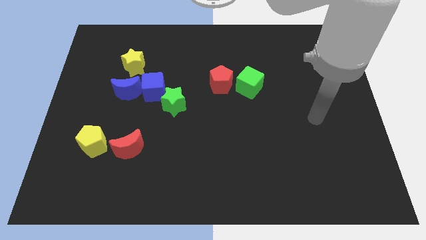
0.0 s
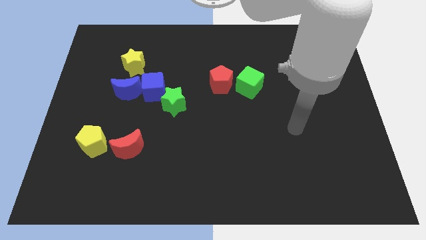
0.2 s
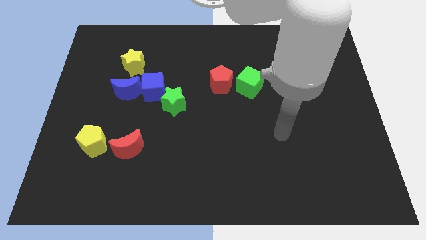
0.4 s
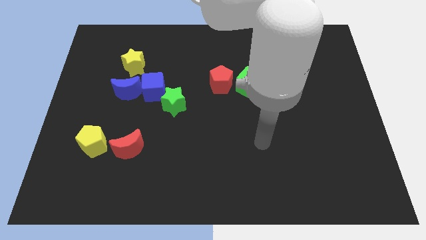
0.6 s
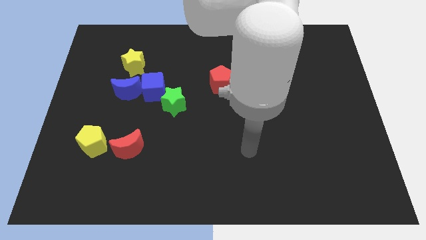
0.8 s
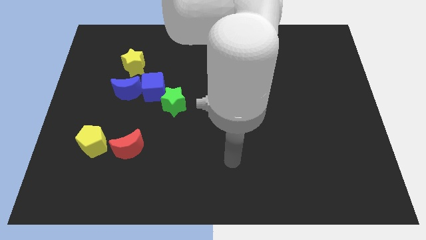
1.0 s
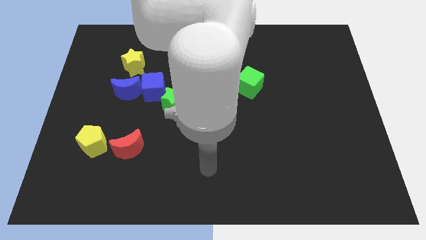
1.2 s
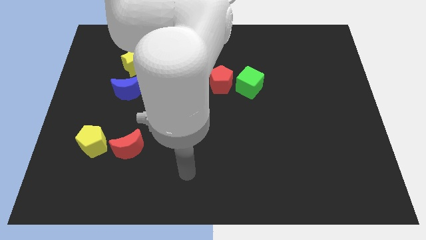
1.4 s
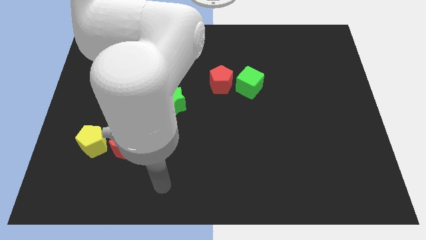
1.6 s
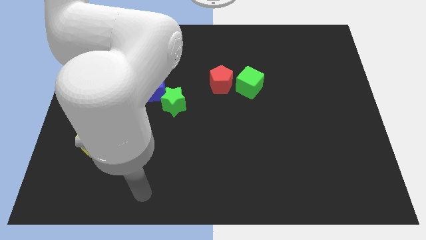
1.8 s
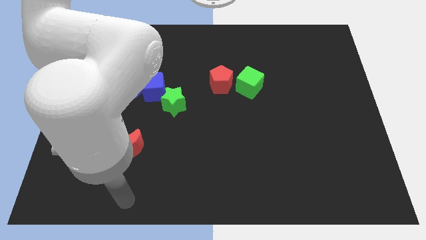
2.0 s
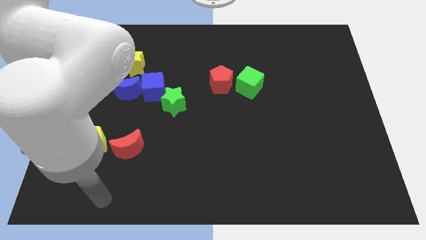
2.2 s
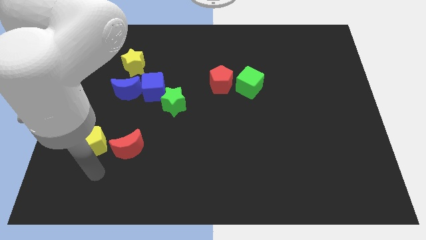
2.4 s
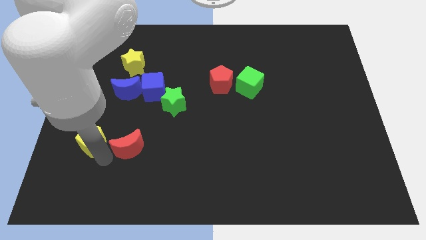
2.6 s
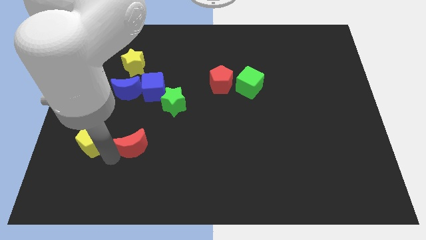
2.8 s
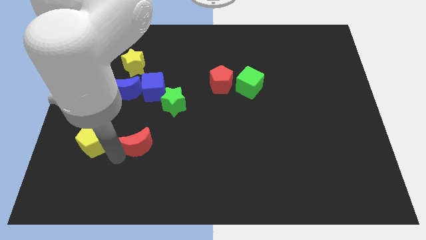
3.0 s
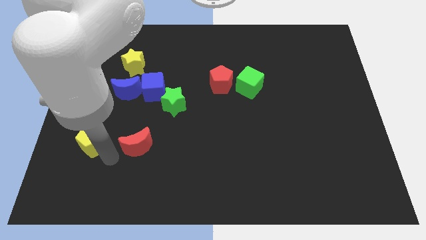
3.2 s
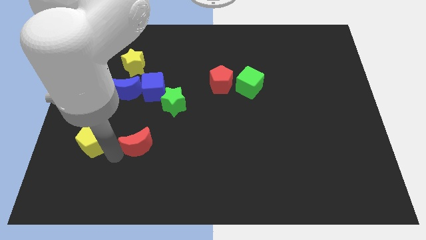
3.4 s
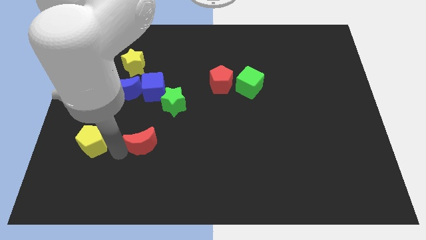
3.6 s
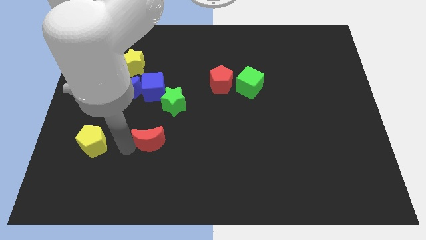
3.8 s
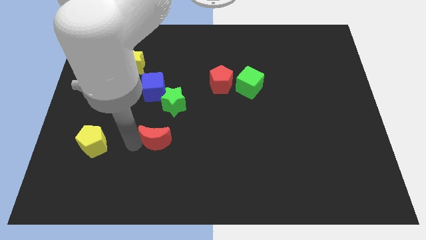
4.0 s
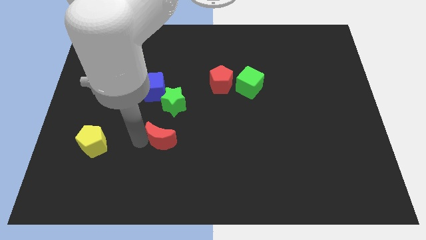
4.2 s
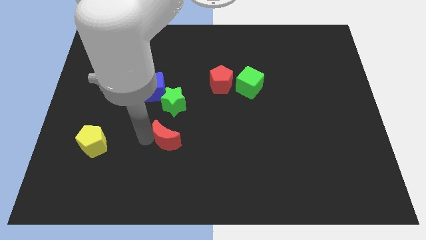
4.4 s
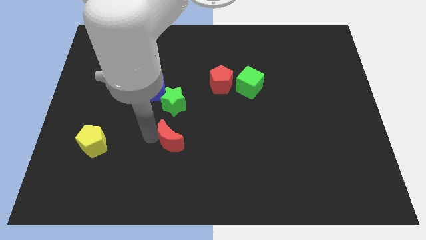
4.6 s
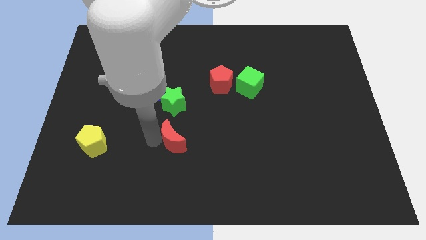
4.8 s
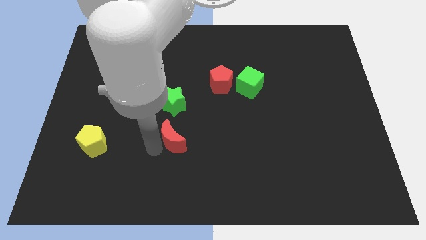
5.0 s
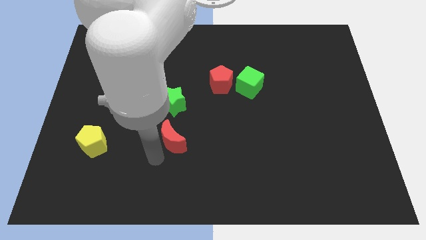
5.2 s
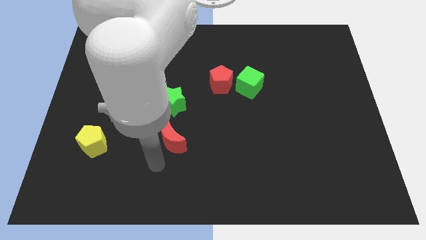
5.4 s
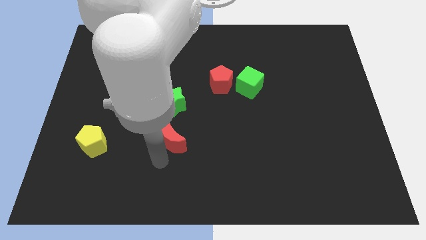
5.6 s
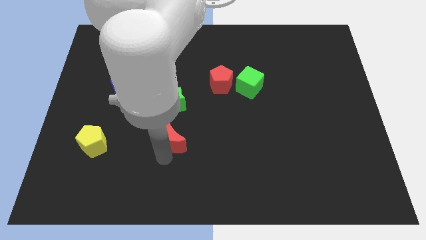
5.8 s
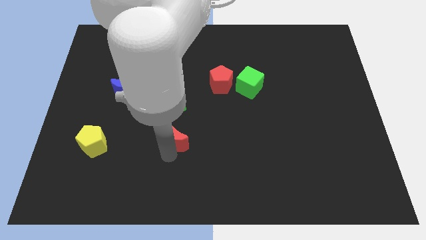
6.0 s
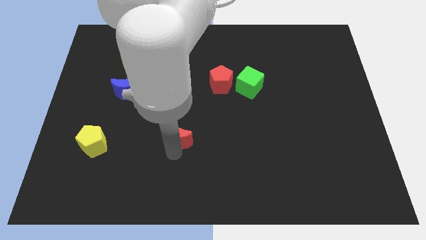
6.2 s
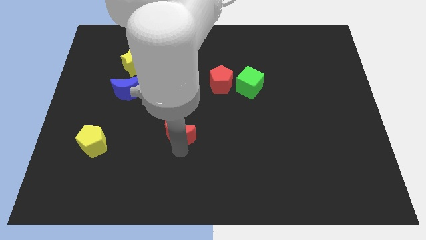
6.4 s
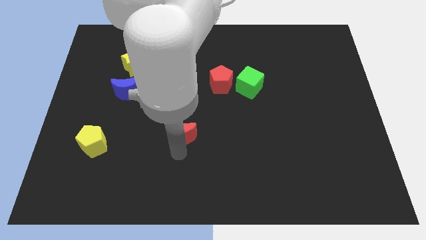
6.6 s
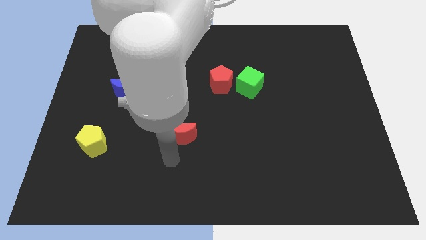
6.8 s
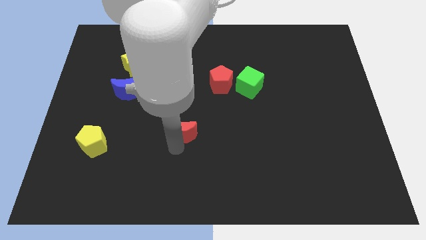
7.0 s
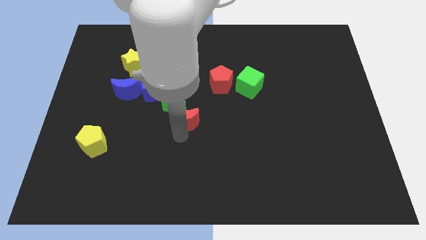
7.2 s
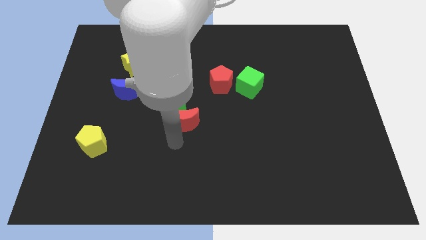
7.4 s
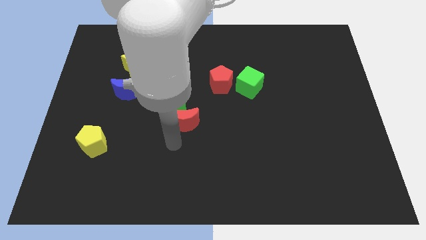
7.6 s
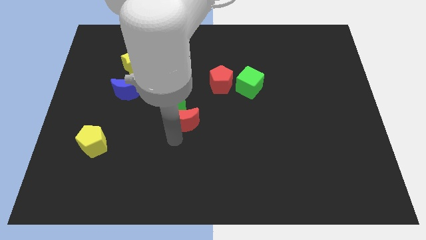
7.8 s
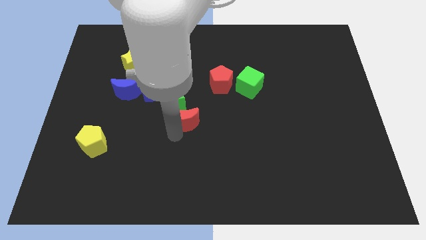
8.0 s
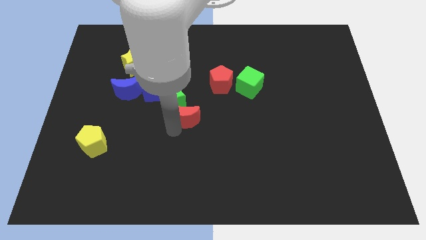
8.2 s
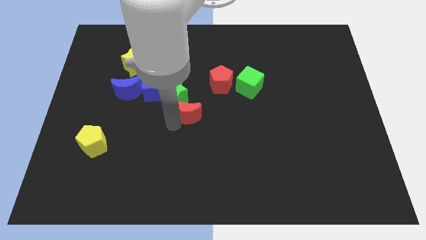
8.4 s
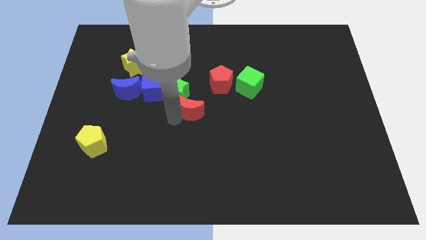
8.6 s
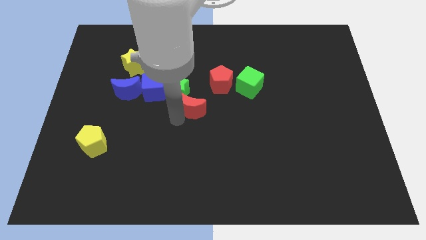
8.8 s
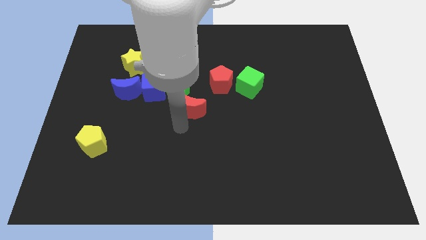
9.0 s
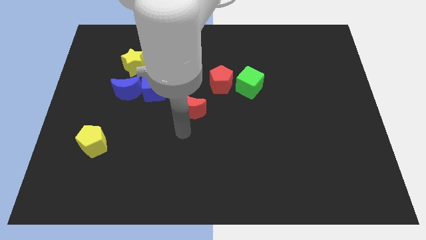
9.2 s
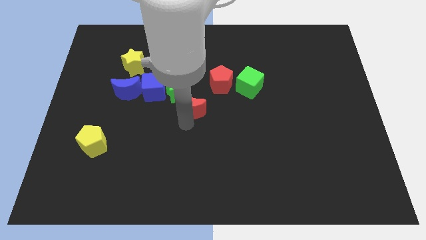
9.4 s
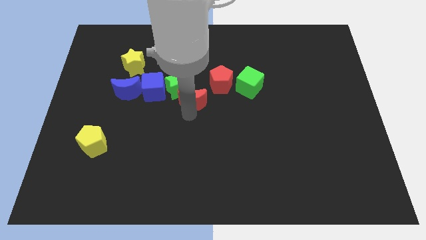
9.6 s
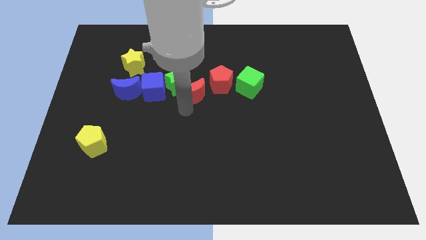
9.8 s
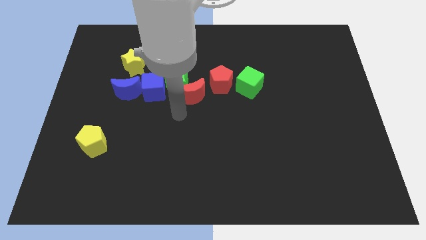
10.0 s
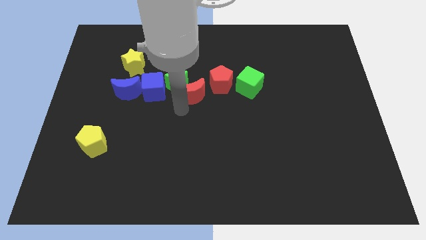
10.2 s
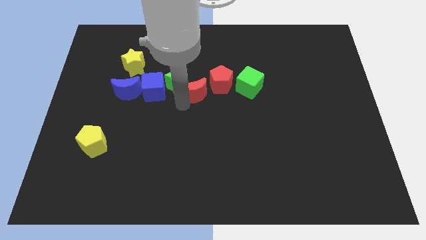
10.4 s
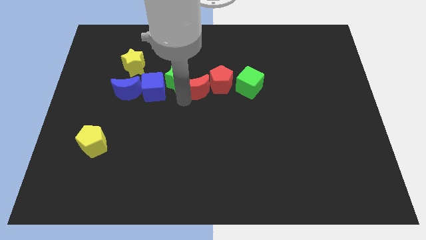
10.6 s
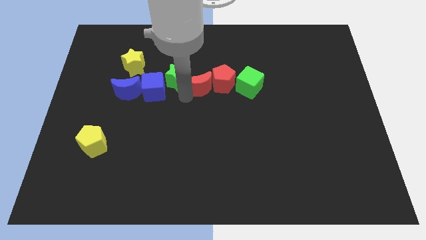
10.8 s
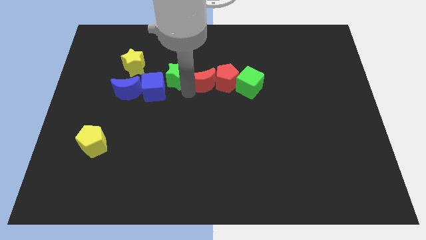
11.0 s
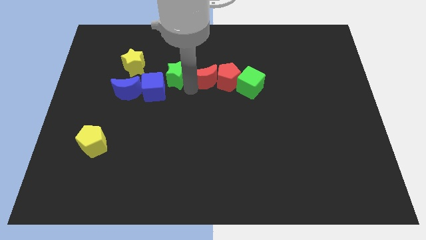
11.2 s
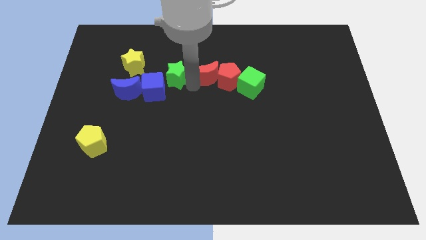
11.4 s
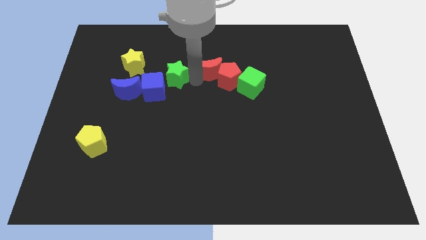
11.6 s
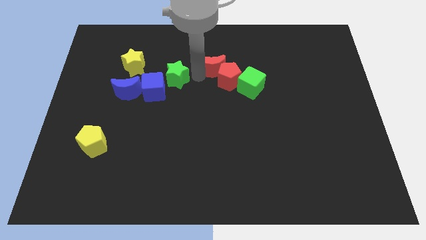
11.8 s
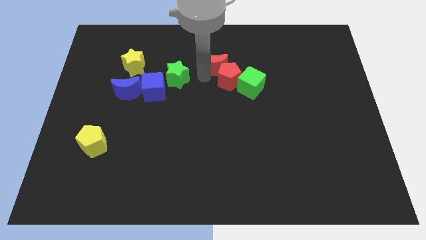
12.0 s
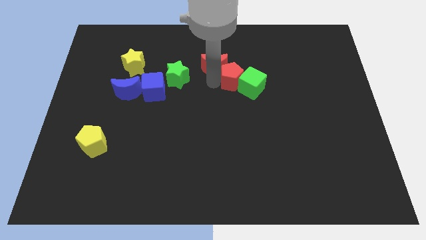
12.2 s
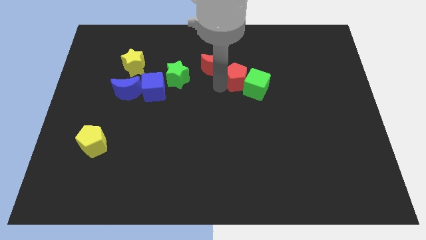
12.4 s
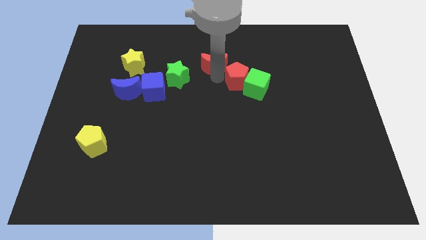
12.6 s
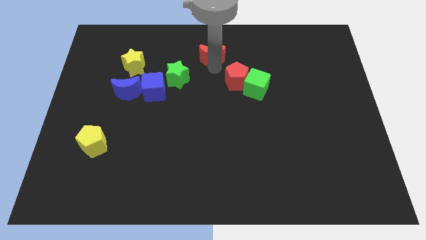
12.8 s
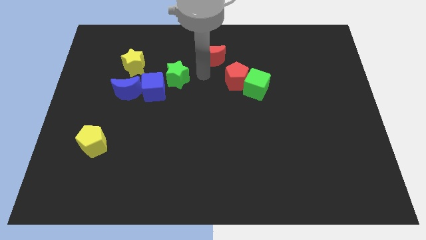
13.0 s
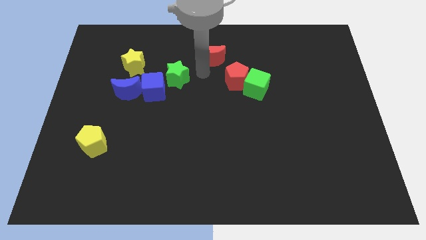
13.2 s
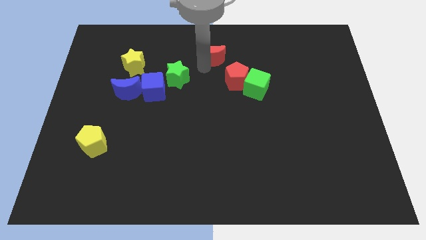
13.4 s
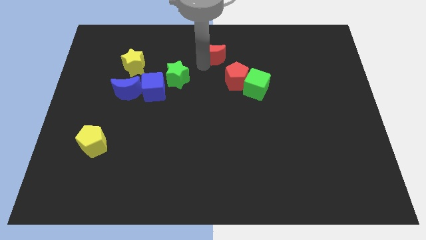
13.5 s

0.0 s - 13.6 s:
slide the red moon to the top side

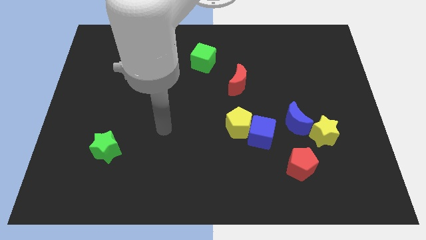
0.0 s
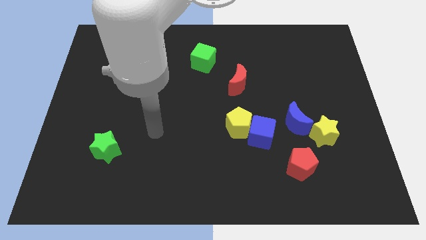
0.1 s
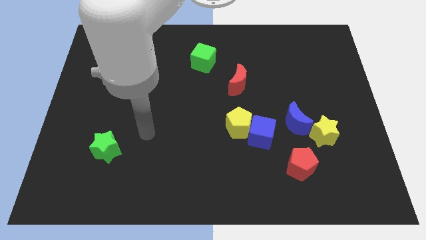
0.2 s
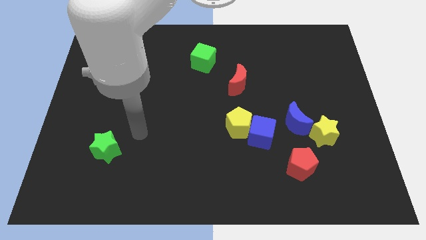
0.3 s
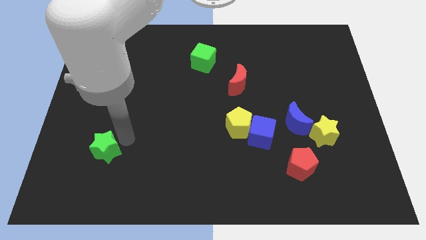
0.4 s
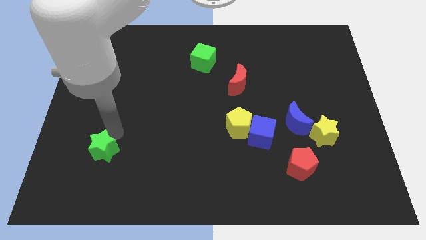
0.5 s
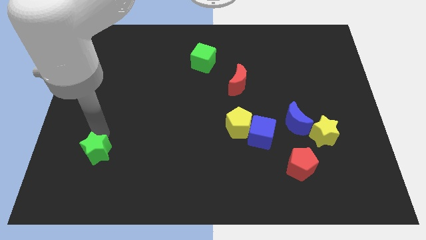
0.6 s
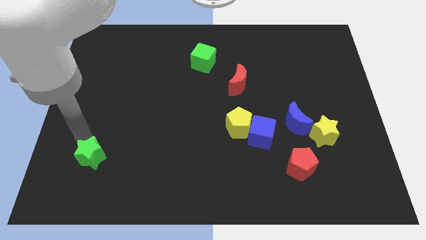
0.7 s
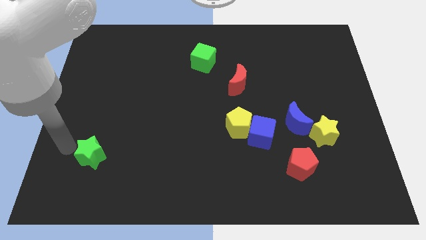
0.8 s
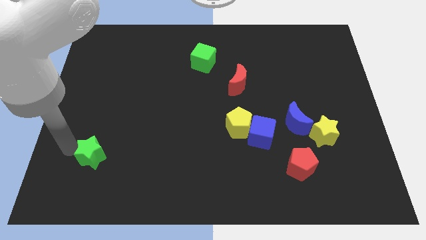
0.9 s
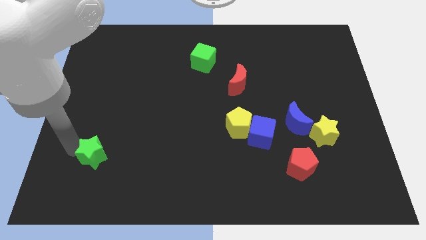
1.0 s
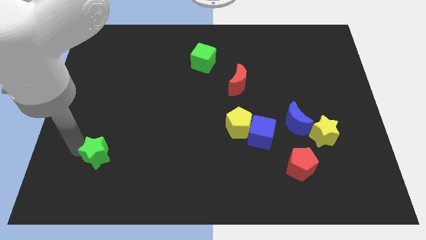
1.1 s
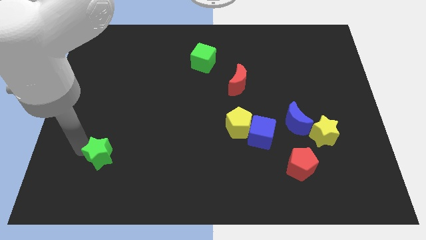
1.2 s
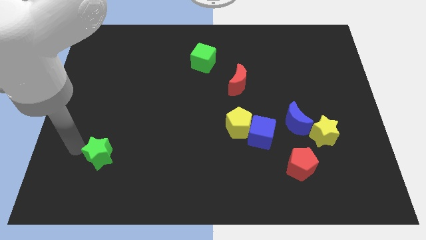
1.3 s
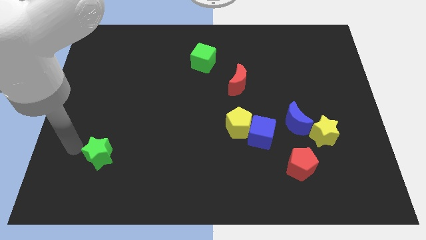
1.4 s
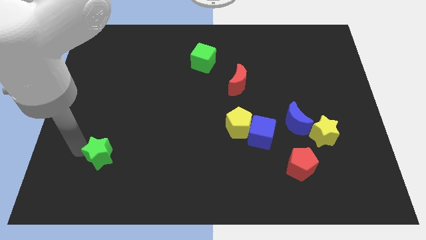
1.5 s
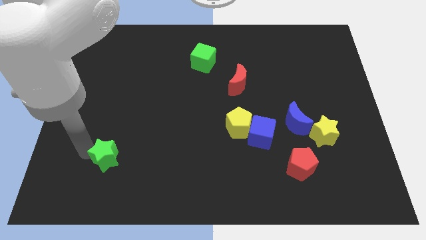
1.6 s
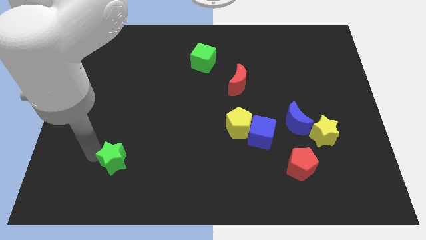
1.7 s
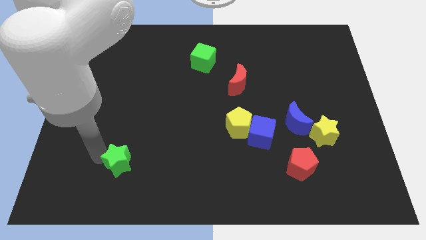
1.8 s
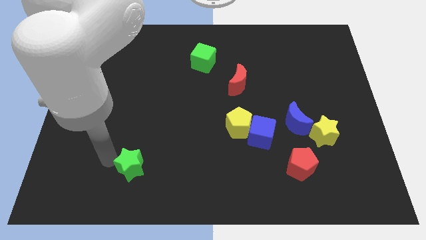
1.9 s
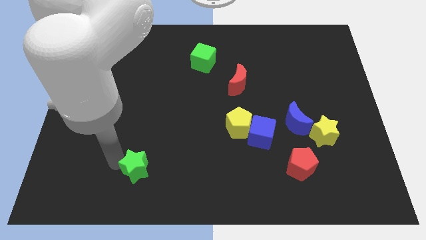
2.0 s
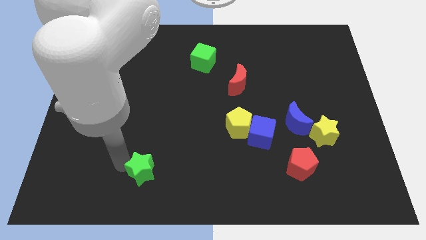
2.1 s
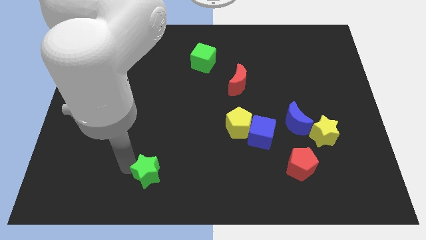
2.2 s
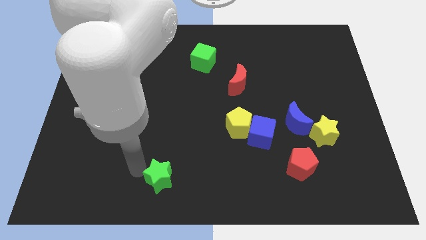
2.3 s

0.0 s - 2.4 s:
put the green star to the bottom side
